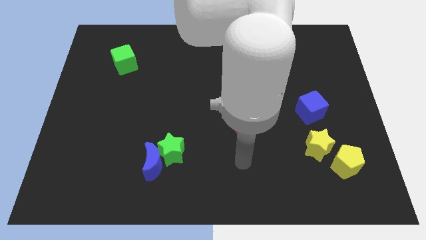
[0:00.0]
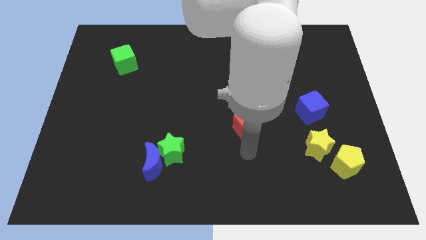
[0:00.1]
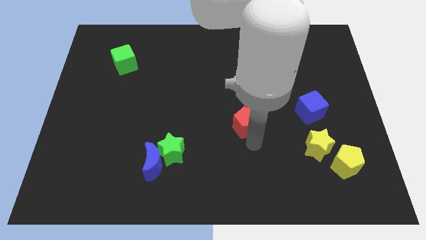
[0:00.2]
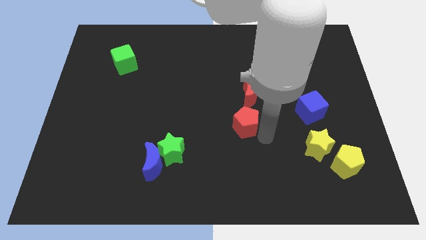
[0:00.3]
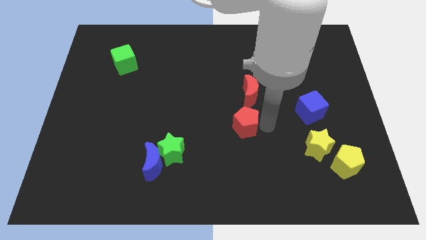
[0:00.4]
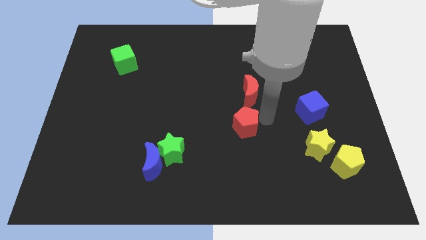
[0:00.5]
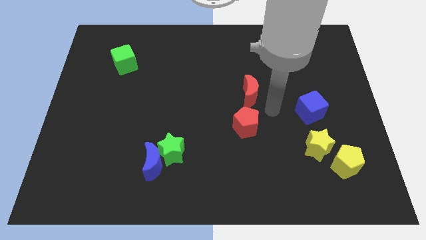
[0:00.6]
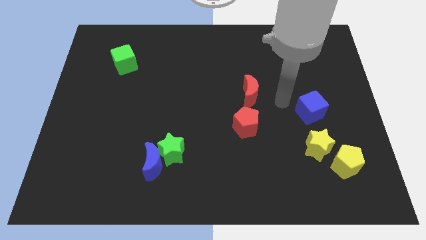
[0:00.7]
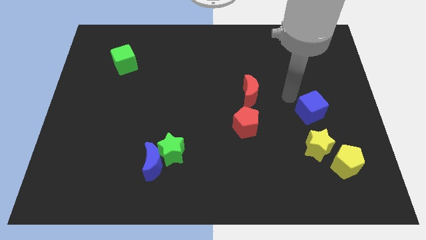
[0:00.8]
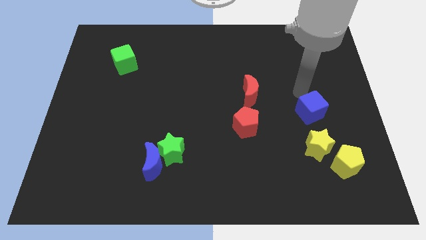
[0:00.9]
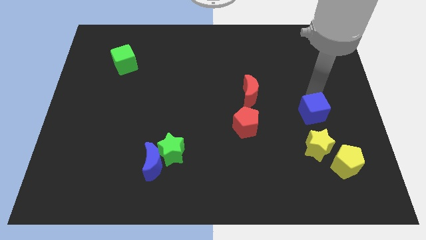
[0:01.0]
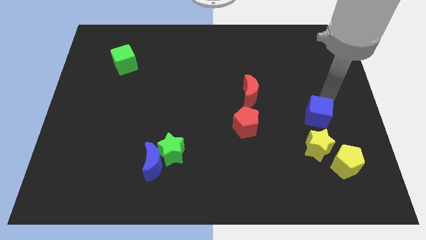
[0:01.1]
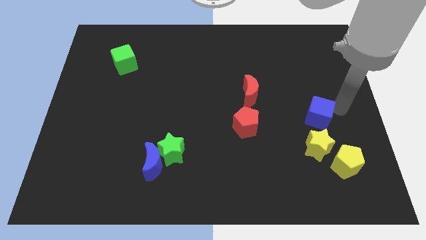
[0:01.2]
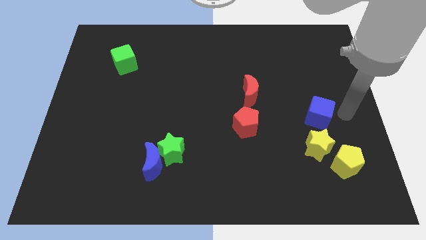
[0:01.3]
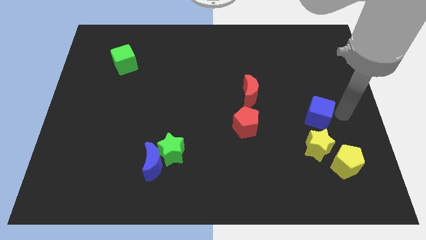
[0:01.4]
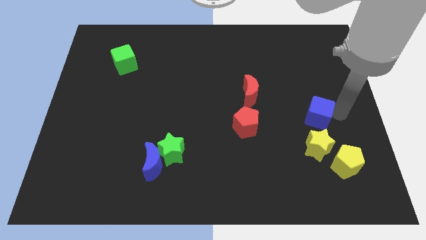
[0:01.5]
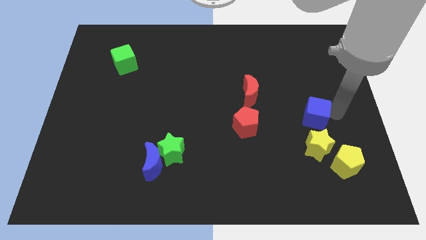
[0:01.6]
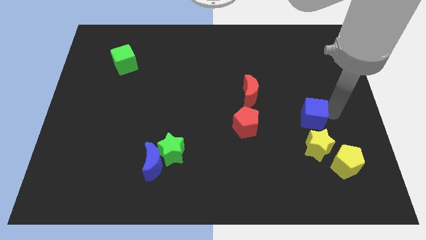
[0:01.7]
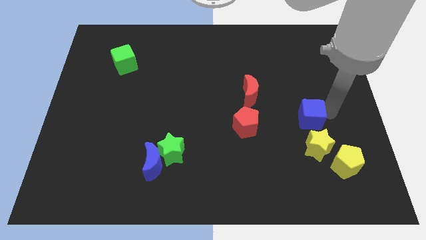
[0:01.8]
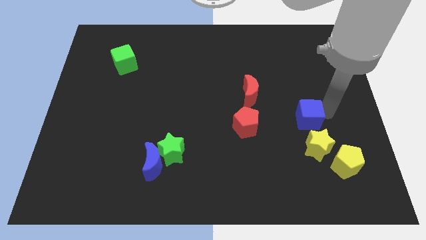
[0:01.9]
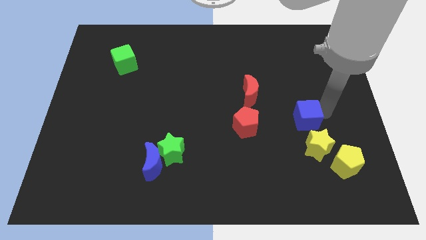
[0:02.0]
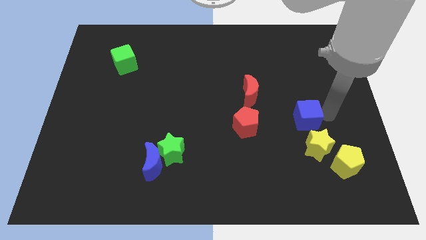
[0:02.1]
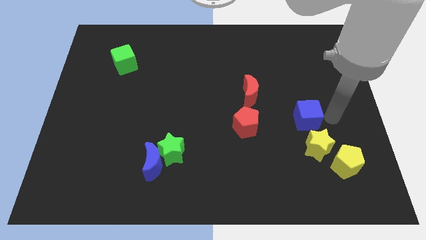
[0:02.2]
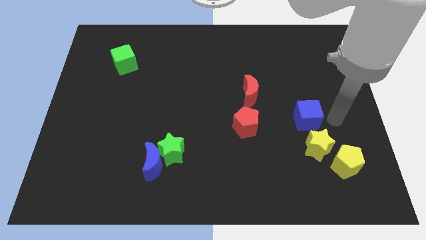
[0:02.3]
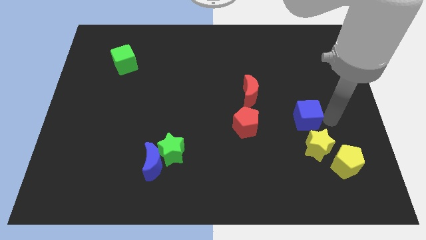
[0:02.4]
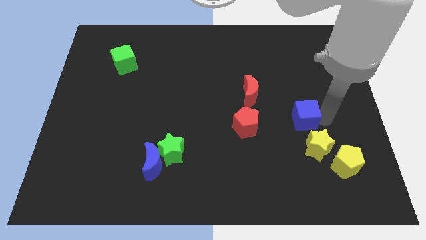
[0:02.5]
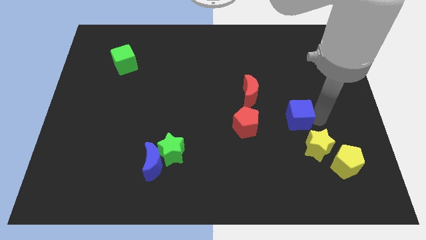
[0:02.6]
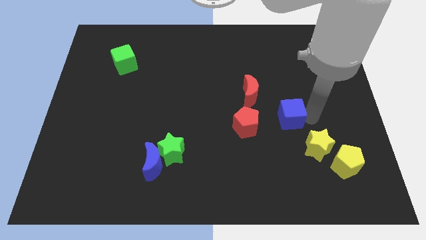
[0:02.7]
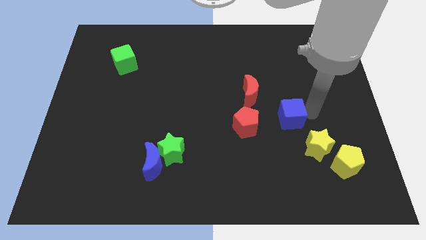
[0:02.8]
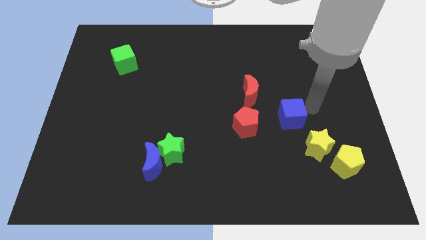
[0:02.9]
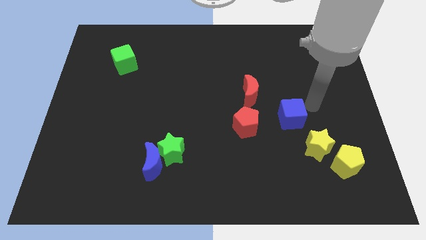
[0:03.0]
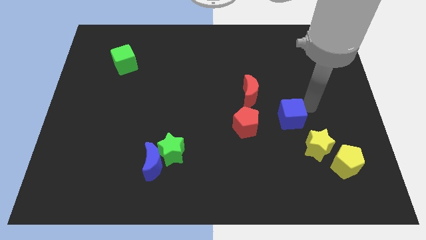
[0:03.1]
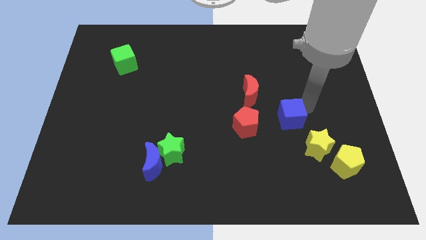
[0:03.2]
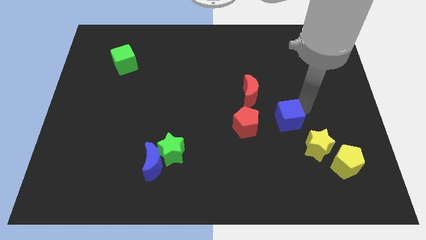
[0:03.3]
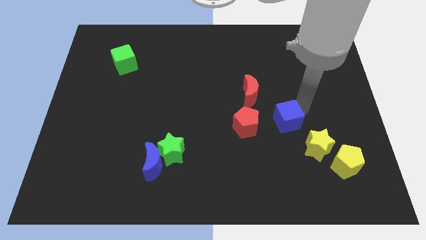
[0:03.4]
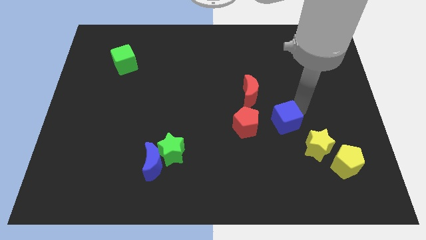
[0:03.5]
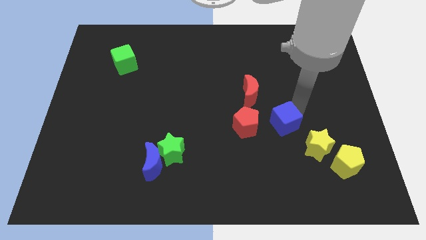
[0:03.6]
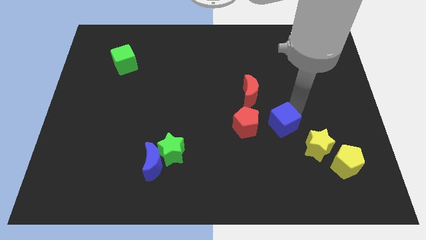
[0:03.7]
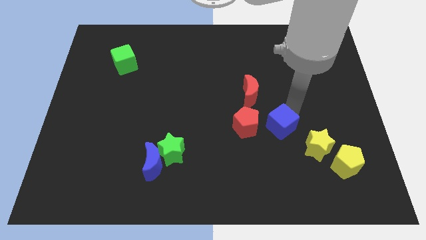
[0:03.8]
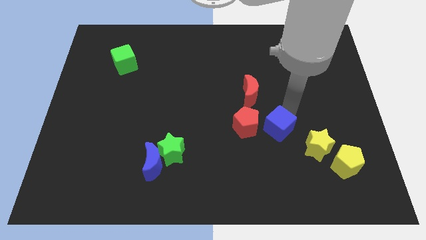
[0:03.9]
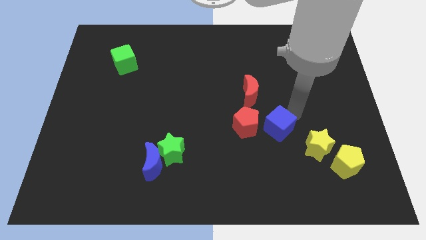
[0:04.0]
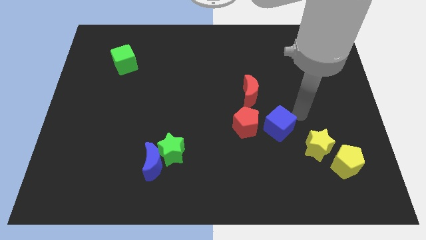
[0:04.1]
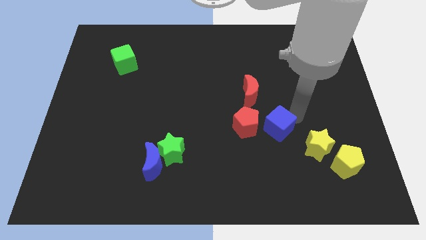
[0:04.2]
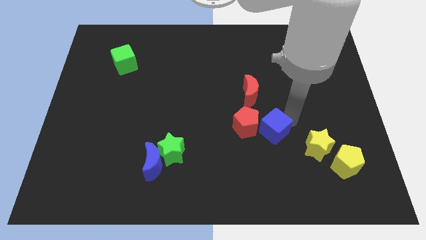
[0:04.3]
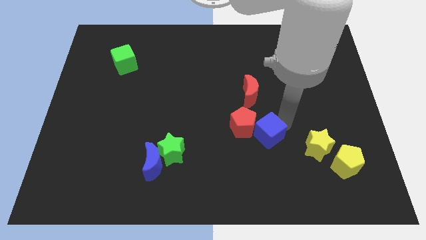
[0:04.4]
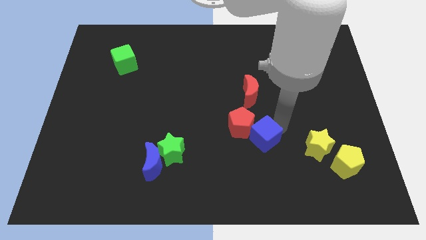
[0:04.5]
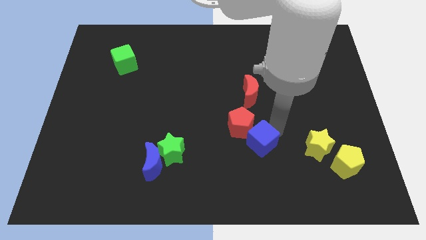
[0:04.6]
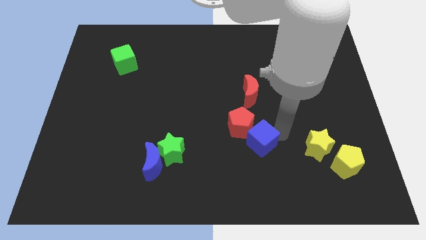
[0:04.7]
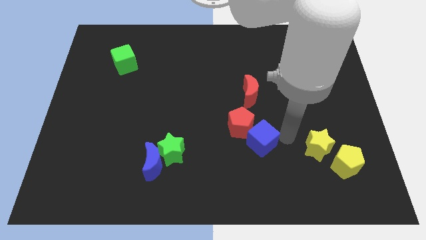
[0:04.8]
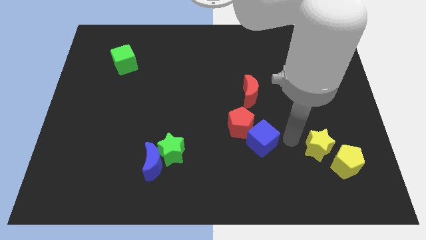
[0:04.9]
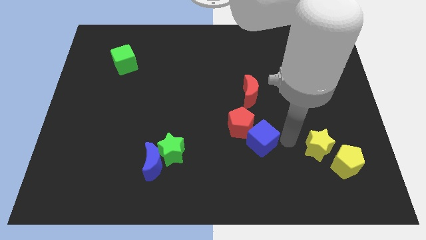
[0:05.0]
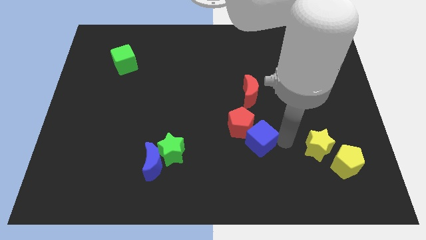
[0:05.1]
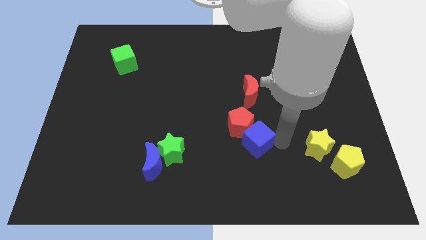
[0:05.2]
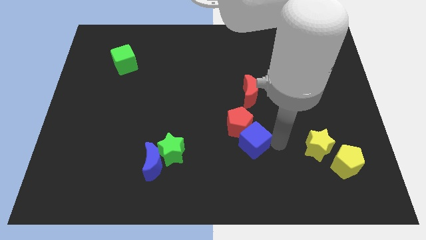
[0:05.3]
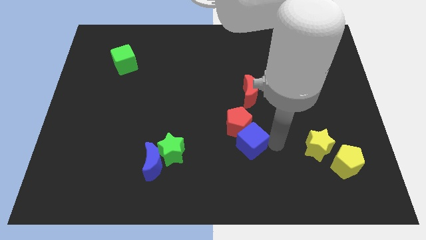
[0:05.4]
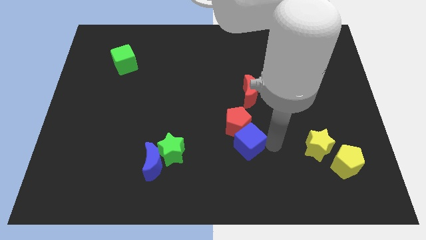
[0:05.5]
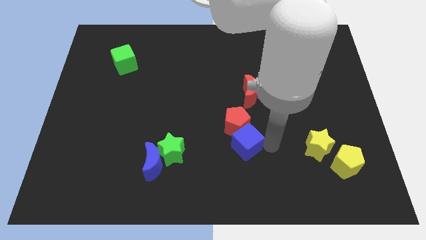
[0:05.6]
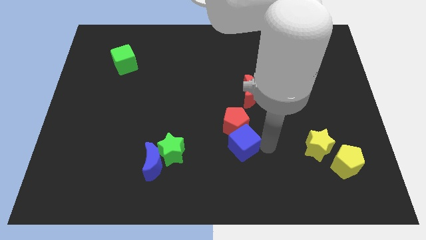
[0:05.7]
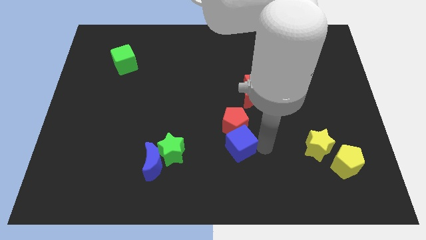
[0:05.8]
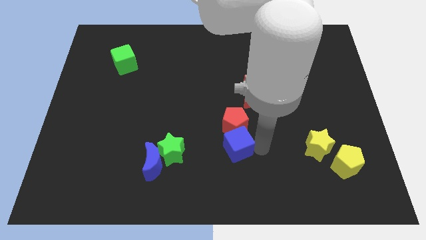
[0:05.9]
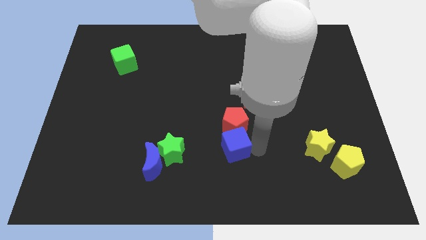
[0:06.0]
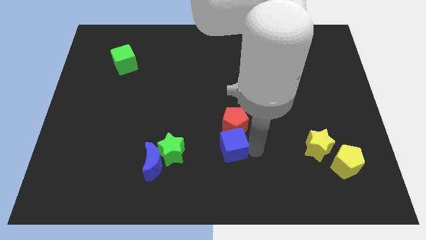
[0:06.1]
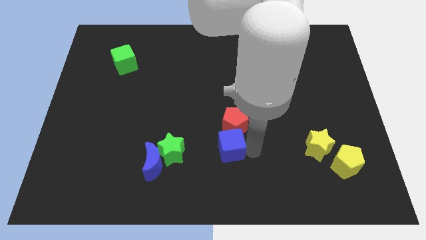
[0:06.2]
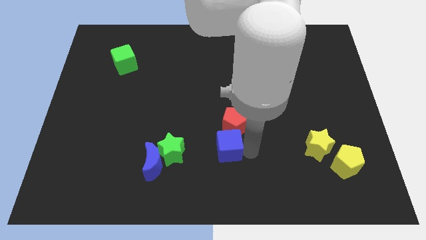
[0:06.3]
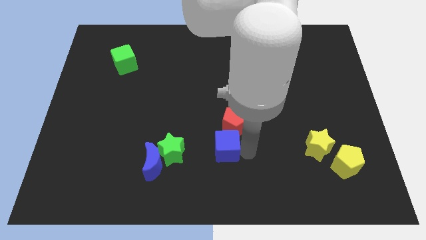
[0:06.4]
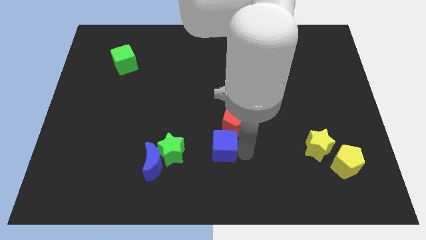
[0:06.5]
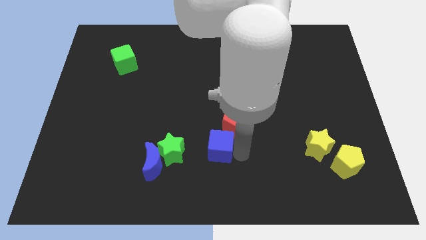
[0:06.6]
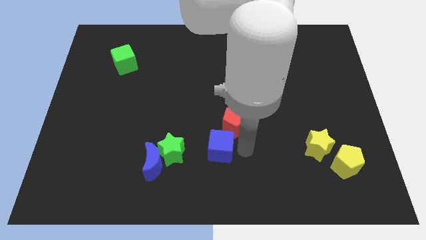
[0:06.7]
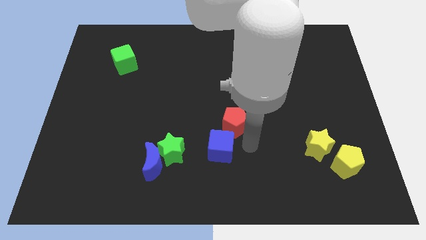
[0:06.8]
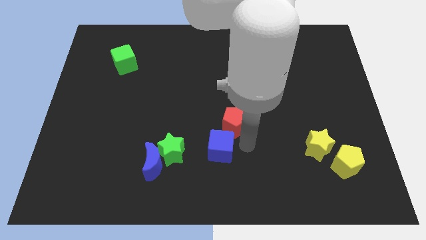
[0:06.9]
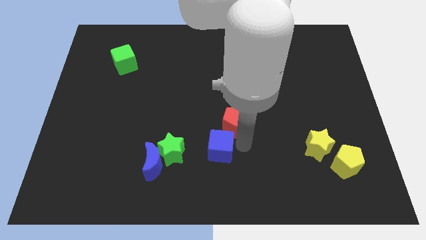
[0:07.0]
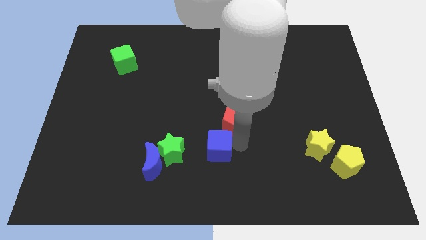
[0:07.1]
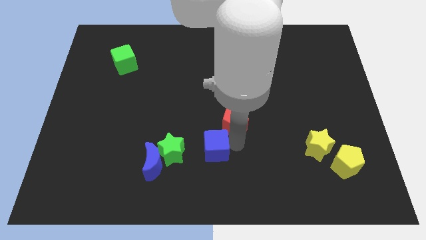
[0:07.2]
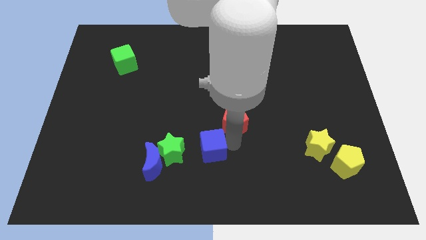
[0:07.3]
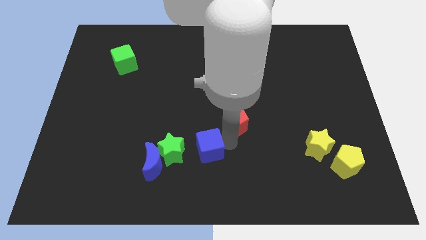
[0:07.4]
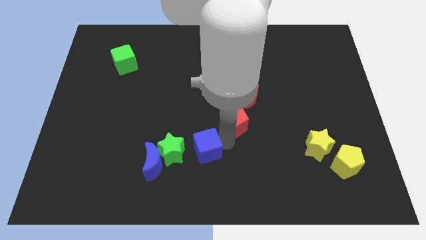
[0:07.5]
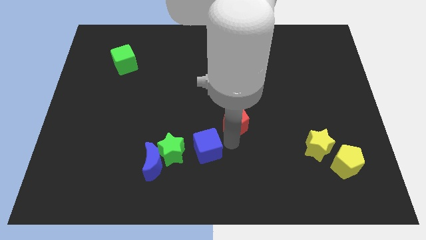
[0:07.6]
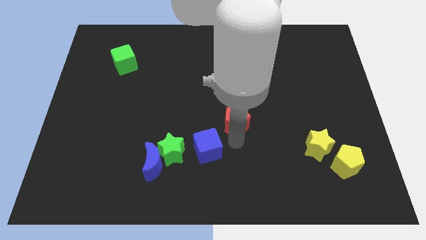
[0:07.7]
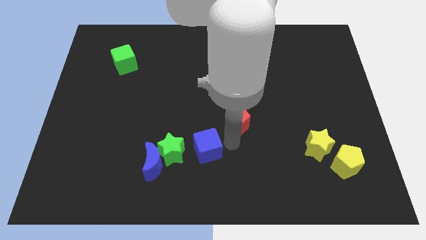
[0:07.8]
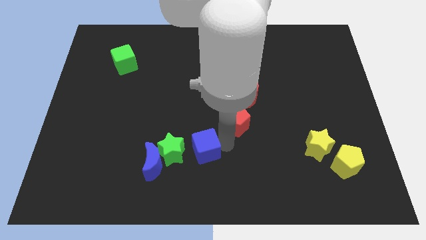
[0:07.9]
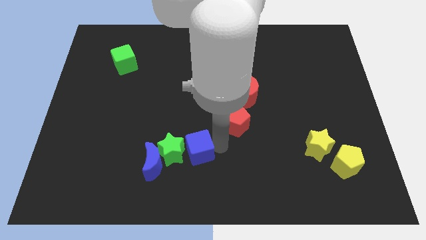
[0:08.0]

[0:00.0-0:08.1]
put the blue cube next to the green star

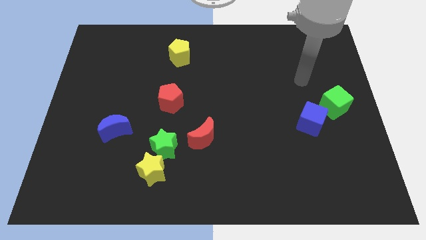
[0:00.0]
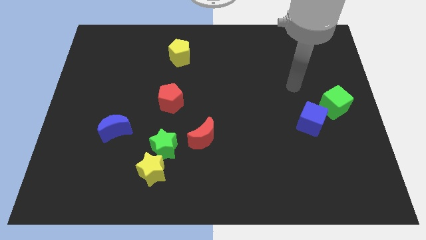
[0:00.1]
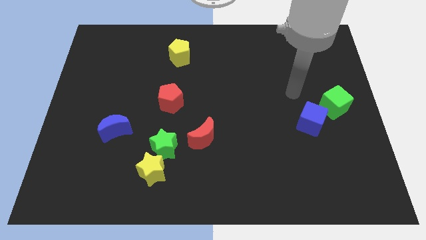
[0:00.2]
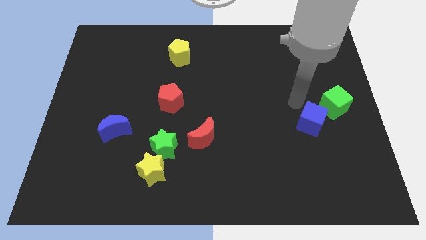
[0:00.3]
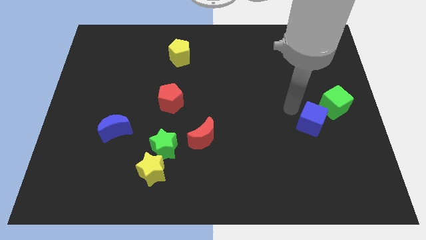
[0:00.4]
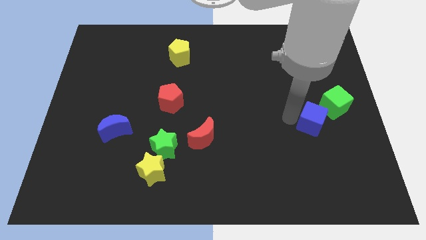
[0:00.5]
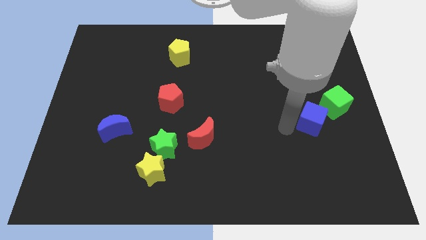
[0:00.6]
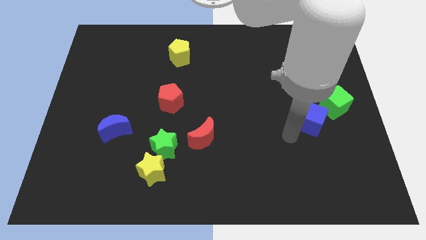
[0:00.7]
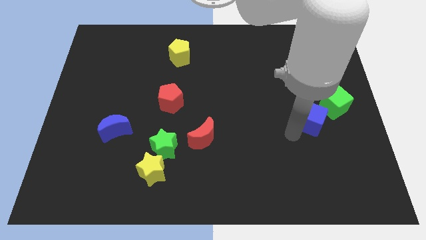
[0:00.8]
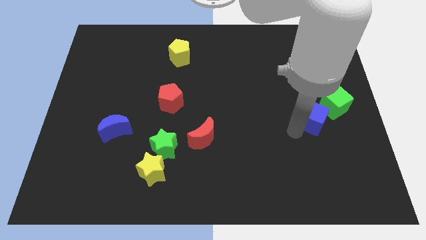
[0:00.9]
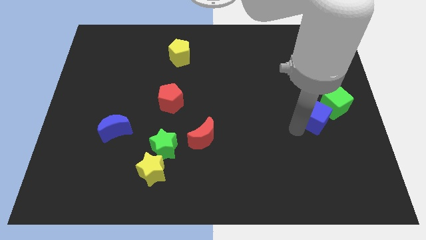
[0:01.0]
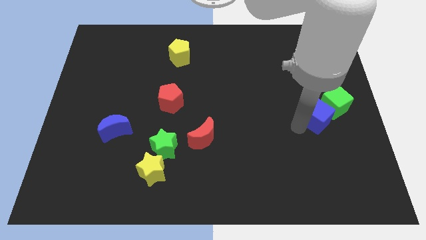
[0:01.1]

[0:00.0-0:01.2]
push the blue cube next to the green cube
